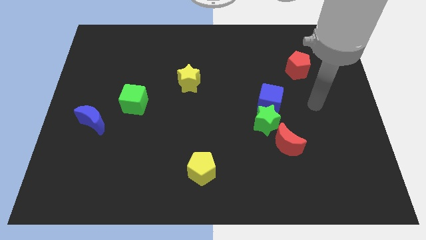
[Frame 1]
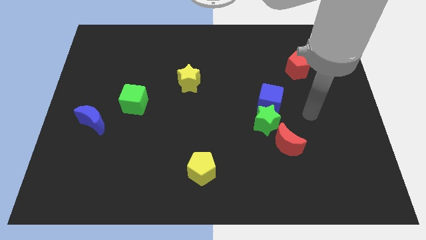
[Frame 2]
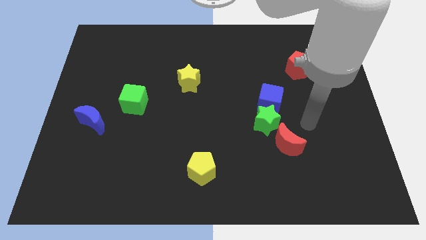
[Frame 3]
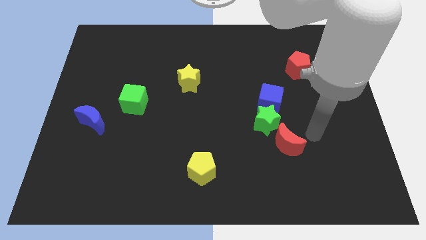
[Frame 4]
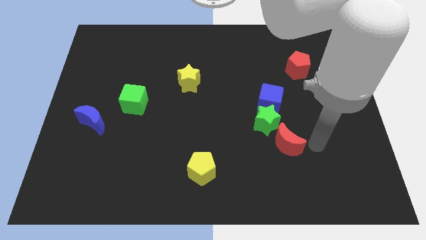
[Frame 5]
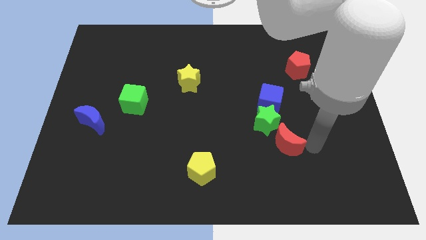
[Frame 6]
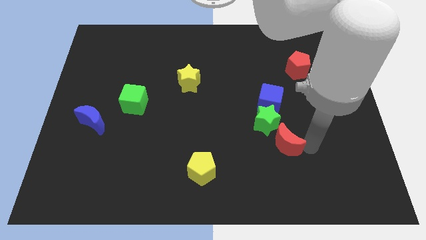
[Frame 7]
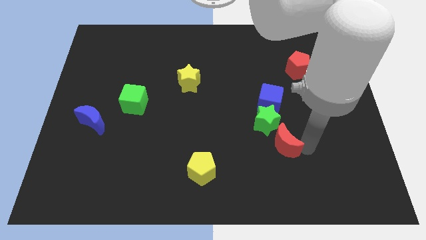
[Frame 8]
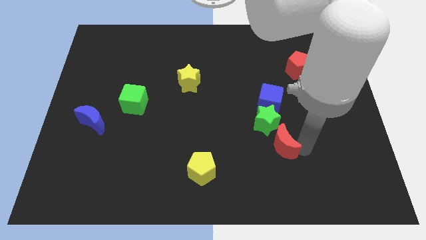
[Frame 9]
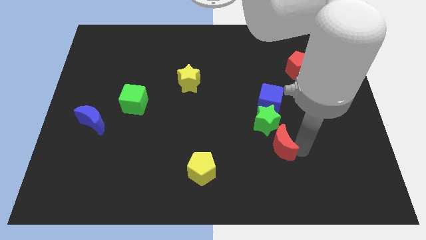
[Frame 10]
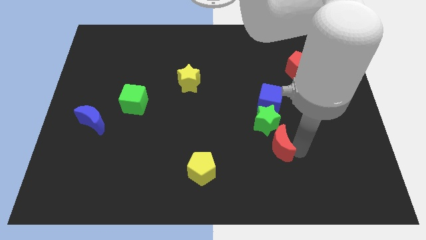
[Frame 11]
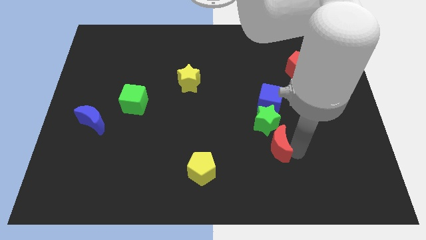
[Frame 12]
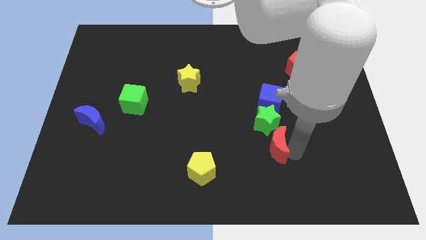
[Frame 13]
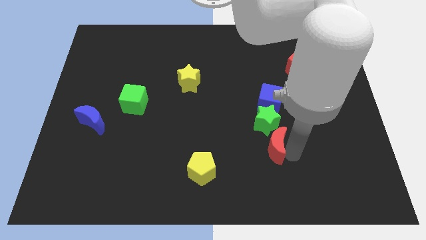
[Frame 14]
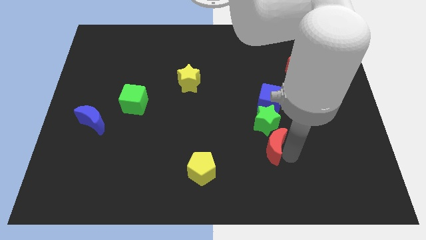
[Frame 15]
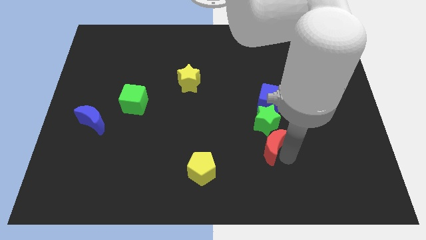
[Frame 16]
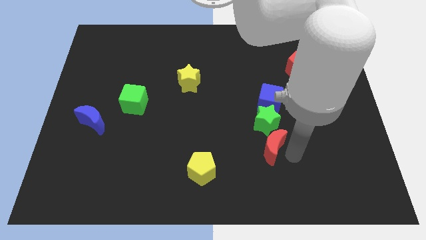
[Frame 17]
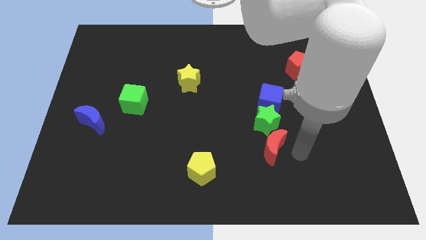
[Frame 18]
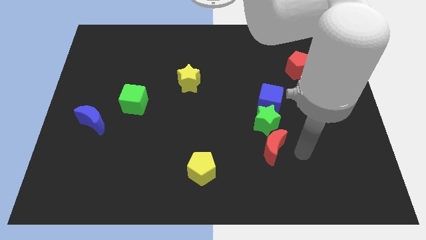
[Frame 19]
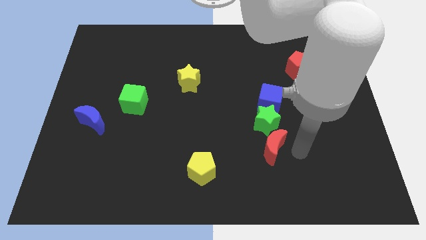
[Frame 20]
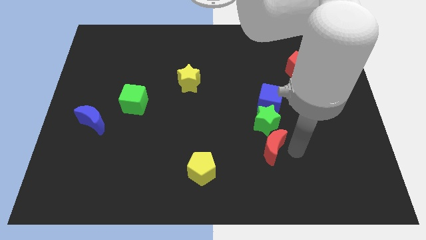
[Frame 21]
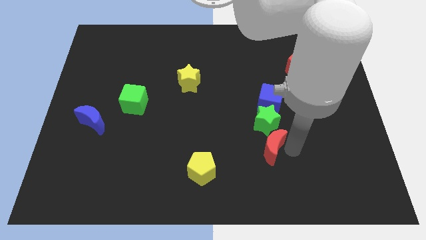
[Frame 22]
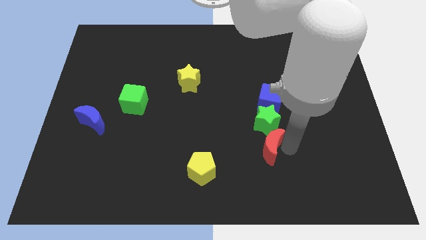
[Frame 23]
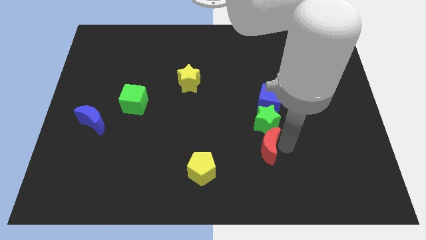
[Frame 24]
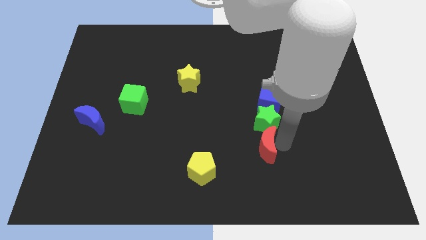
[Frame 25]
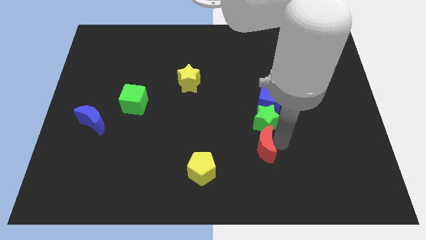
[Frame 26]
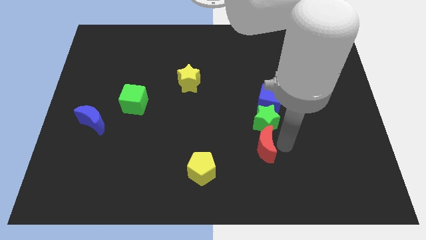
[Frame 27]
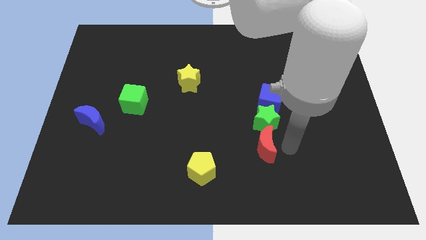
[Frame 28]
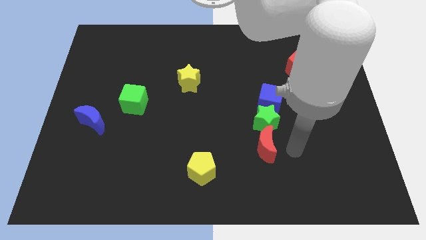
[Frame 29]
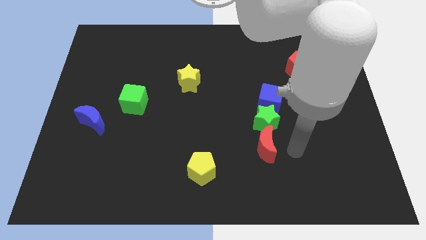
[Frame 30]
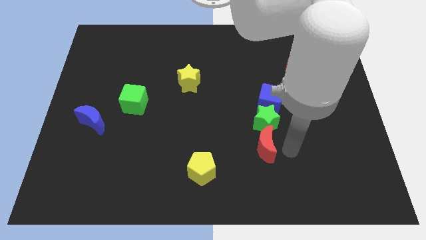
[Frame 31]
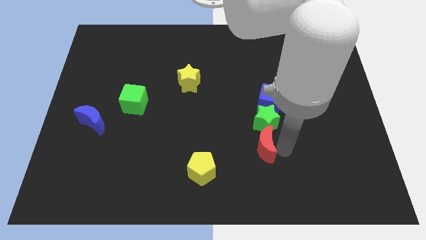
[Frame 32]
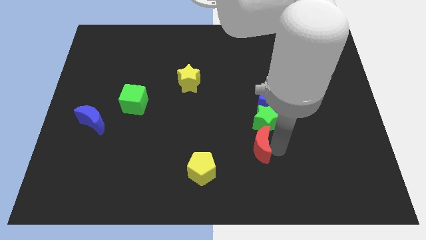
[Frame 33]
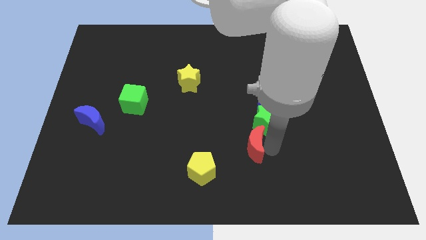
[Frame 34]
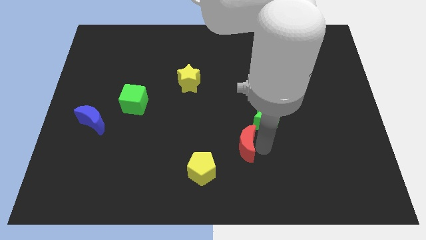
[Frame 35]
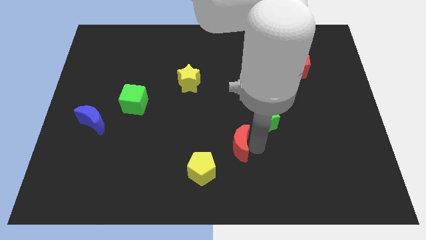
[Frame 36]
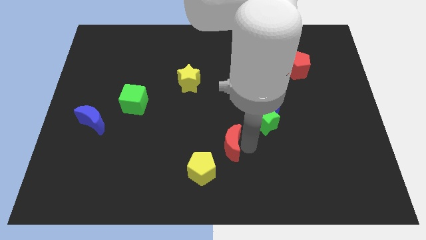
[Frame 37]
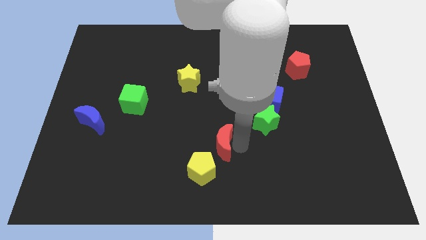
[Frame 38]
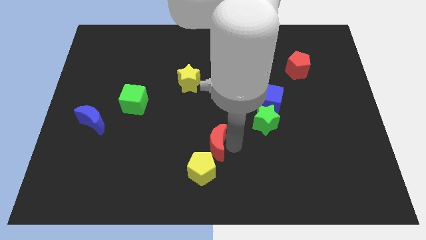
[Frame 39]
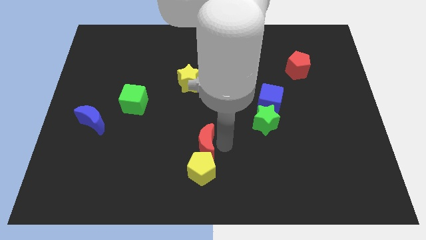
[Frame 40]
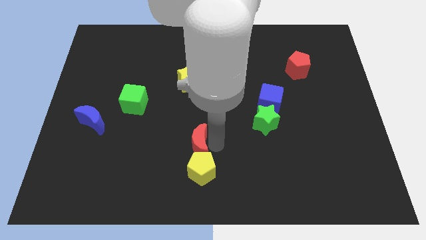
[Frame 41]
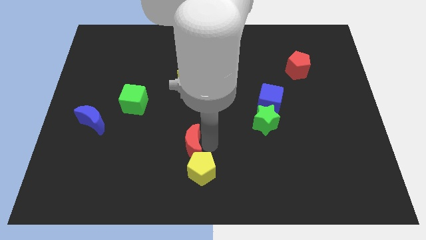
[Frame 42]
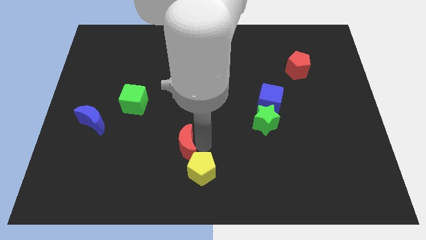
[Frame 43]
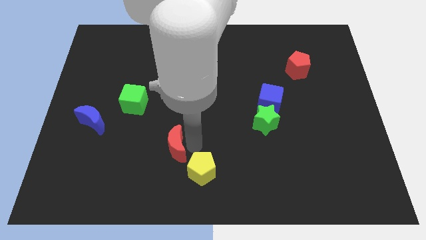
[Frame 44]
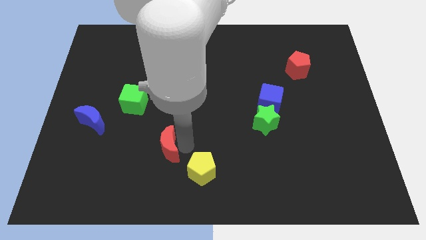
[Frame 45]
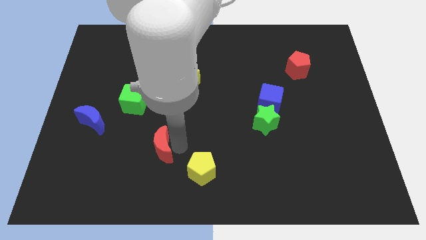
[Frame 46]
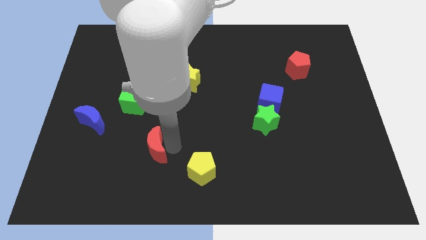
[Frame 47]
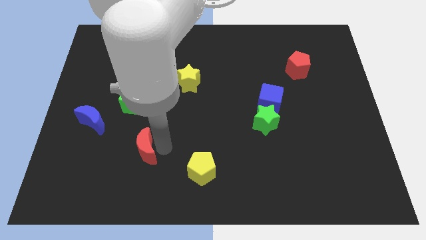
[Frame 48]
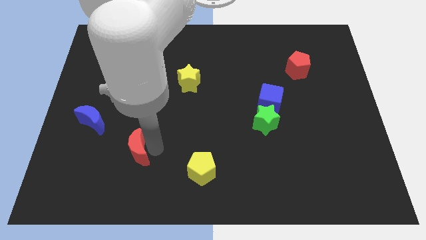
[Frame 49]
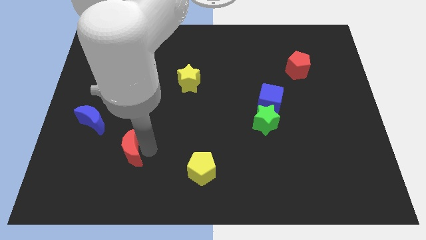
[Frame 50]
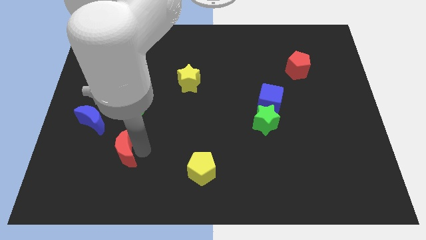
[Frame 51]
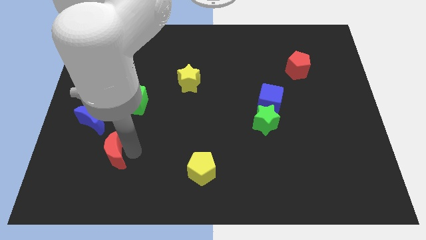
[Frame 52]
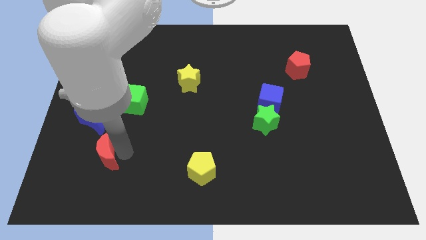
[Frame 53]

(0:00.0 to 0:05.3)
push the red moon to the bottom side of the blue moon

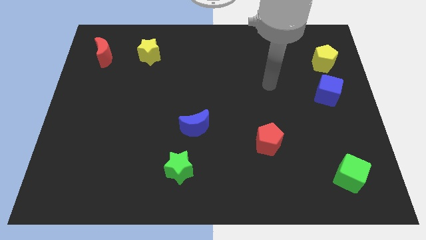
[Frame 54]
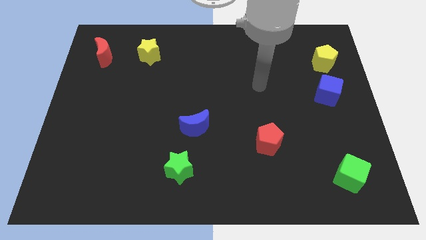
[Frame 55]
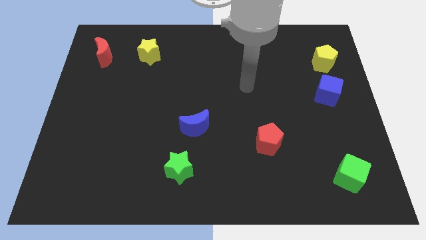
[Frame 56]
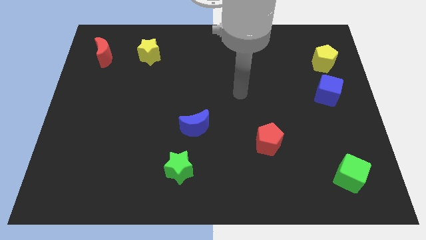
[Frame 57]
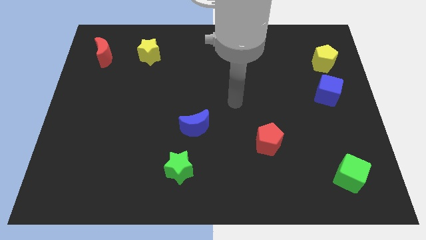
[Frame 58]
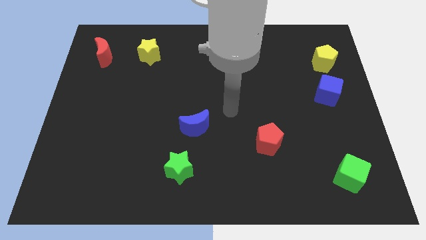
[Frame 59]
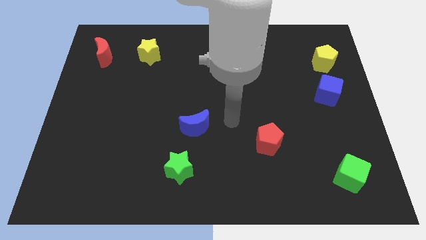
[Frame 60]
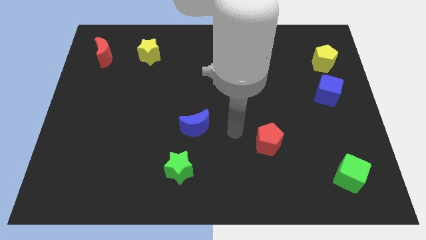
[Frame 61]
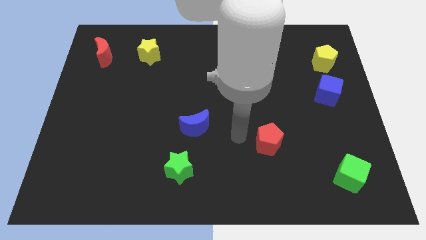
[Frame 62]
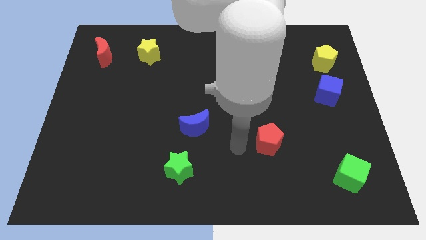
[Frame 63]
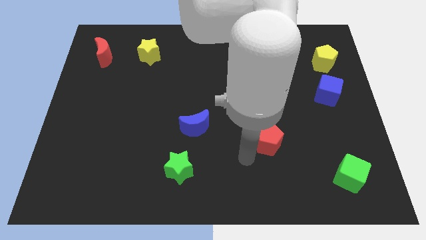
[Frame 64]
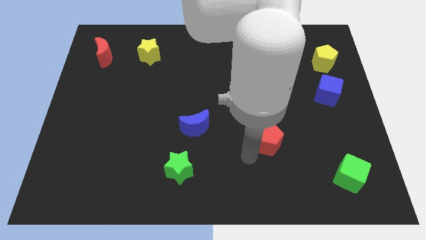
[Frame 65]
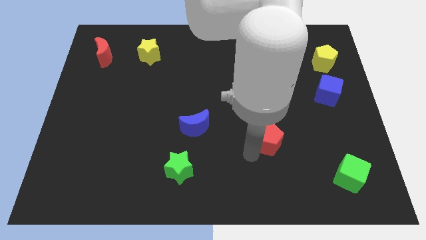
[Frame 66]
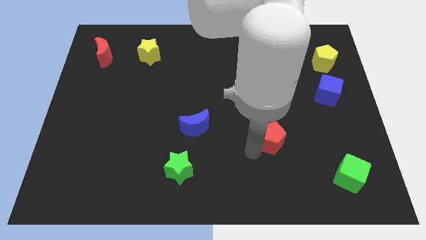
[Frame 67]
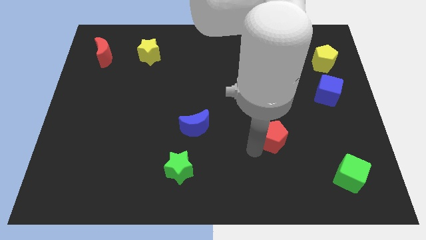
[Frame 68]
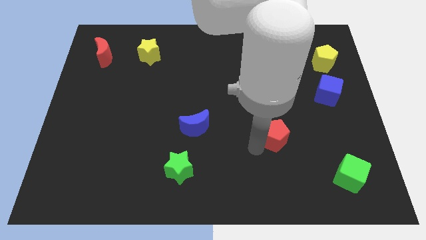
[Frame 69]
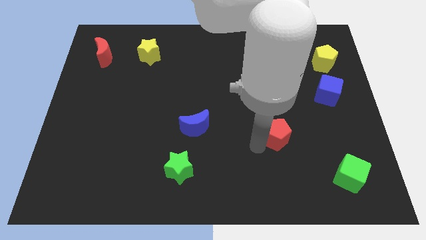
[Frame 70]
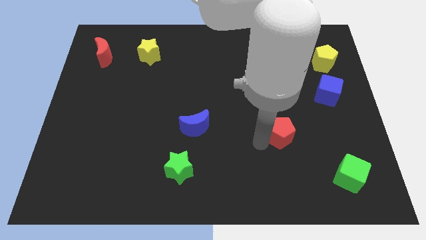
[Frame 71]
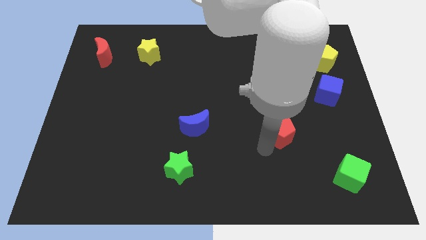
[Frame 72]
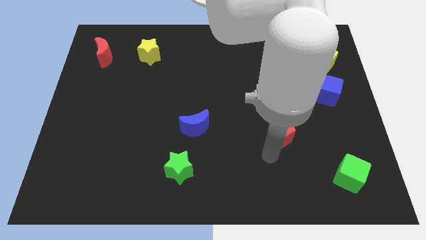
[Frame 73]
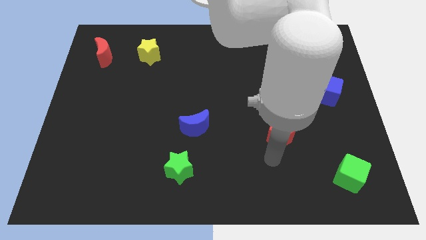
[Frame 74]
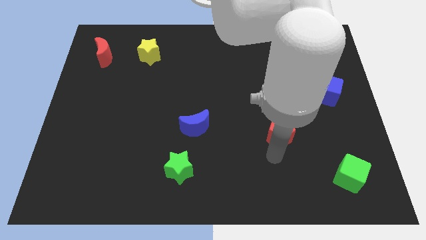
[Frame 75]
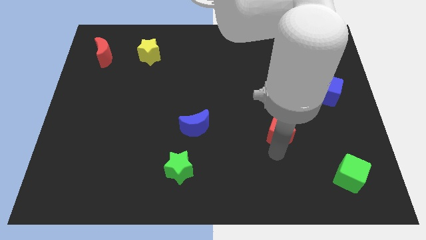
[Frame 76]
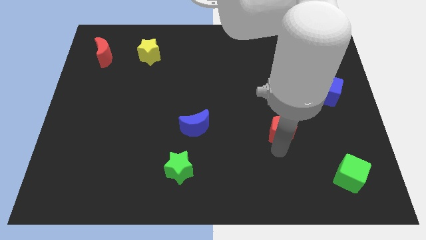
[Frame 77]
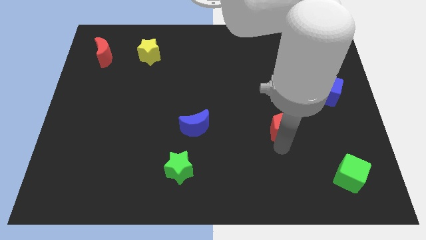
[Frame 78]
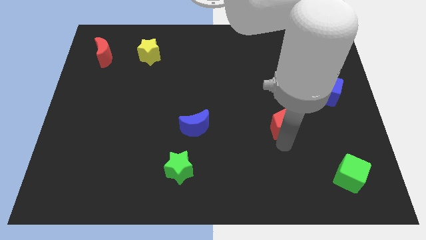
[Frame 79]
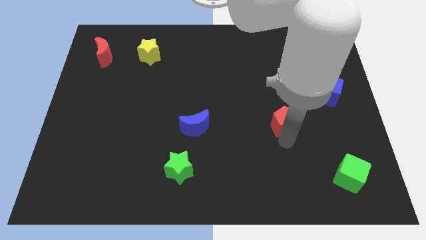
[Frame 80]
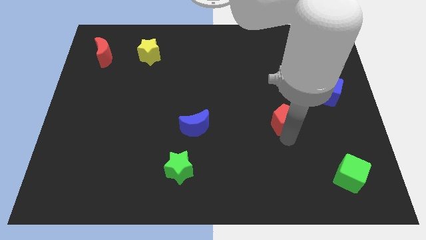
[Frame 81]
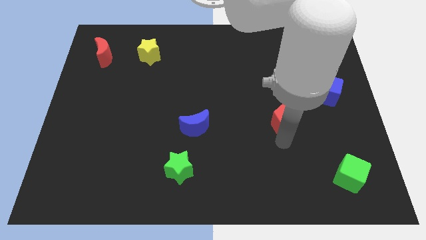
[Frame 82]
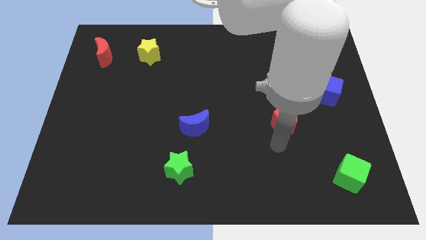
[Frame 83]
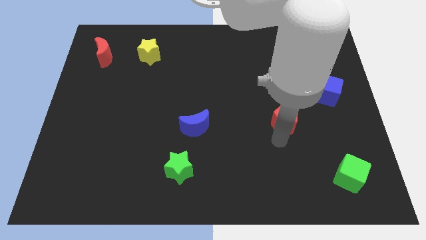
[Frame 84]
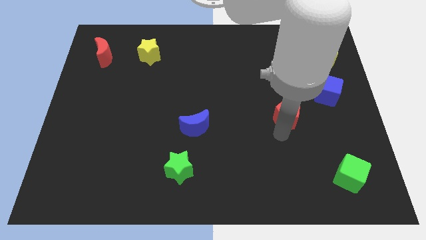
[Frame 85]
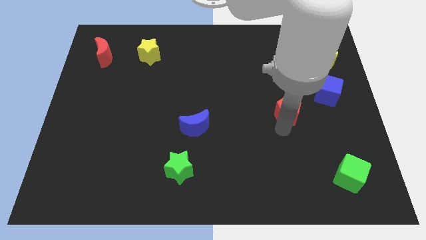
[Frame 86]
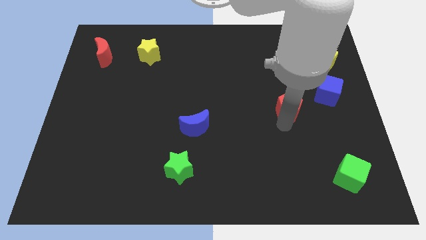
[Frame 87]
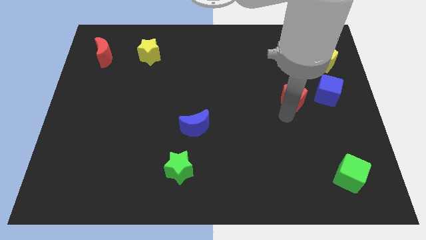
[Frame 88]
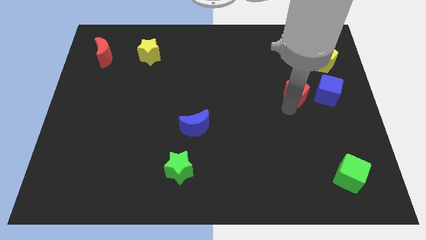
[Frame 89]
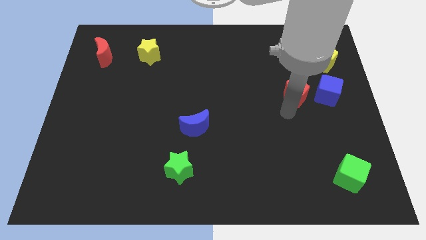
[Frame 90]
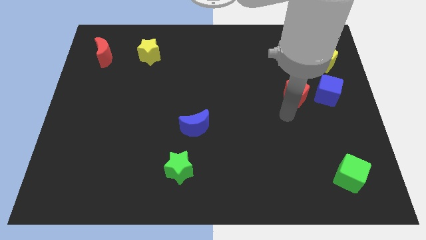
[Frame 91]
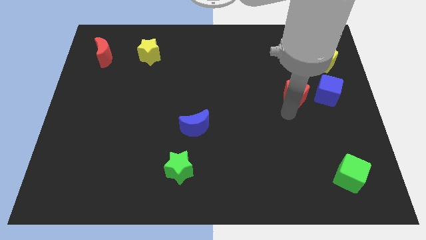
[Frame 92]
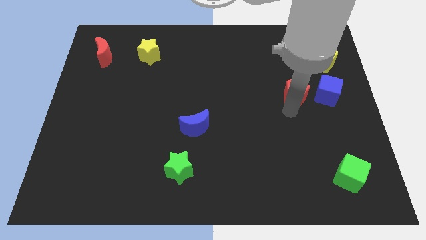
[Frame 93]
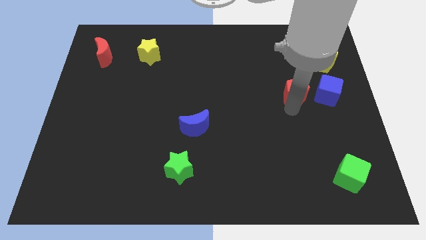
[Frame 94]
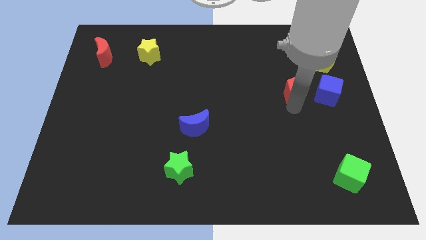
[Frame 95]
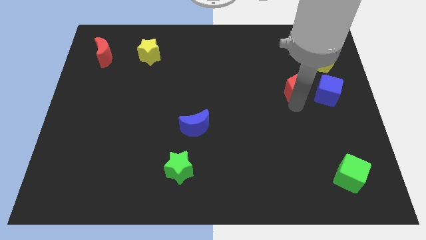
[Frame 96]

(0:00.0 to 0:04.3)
put the red pentagon to the top left side of the blue cube
